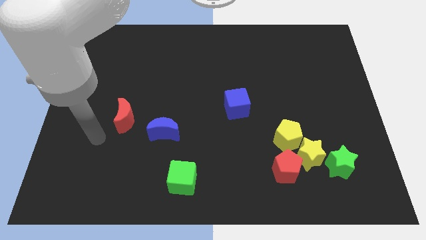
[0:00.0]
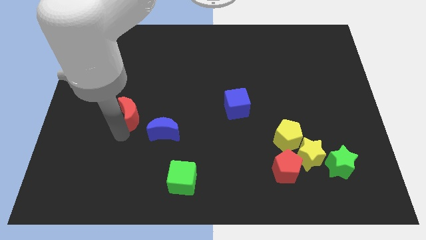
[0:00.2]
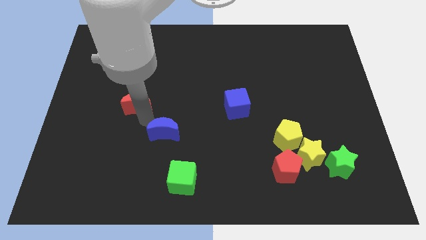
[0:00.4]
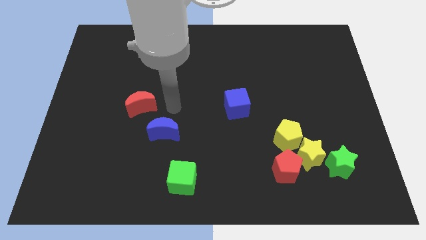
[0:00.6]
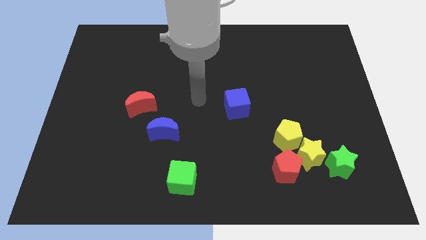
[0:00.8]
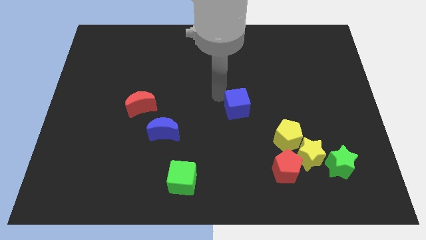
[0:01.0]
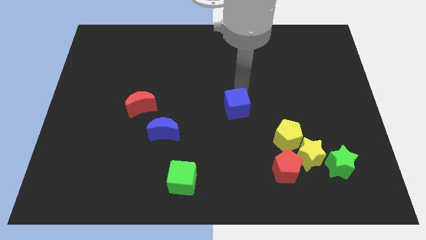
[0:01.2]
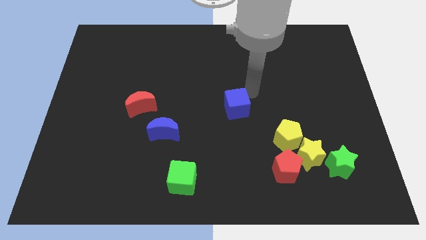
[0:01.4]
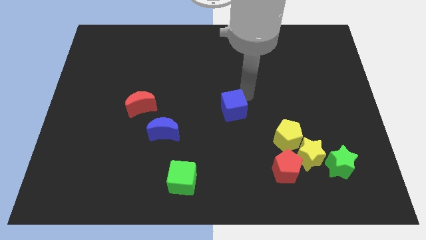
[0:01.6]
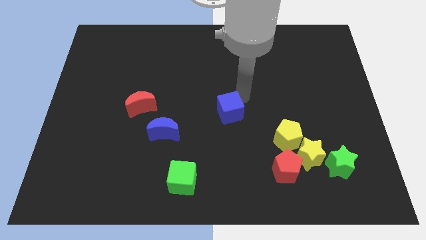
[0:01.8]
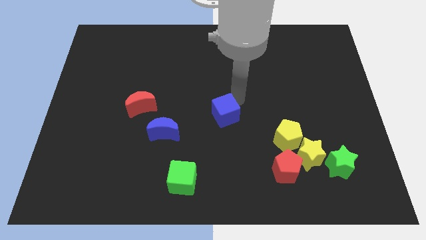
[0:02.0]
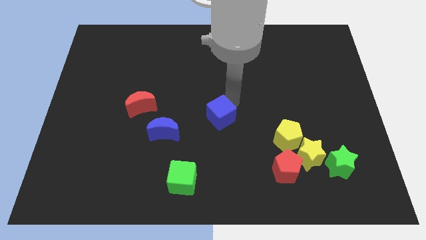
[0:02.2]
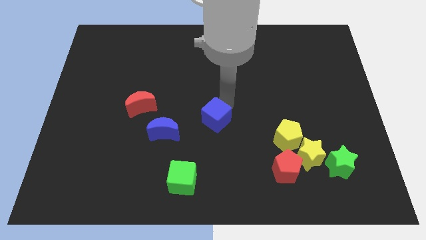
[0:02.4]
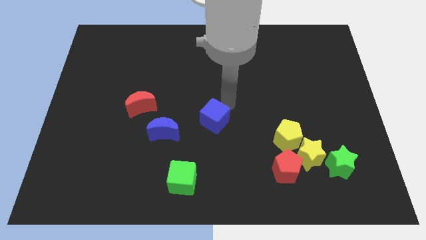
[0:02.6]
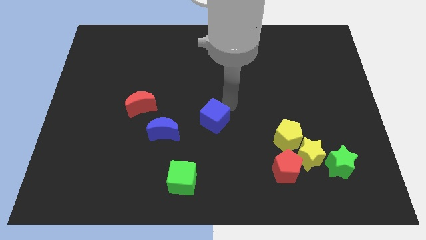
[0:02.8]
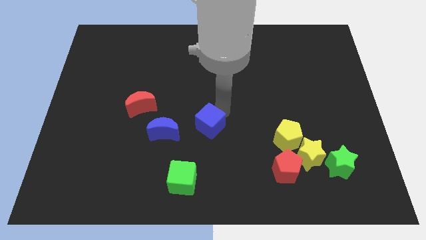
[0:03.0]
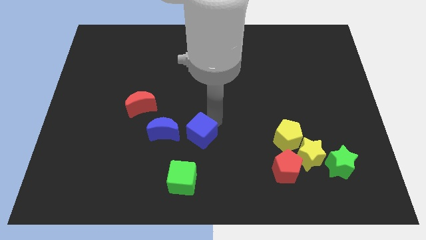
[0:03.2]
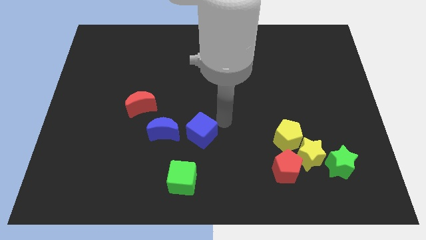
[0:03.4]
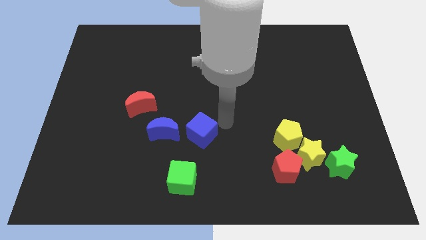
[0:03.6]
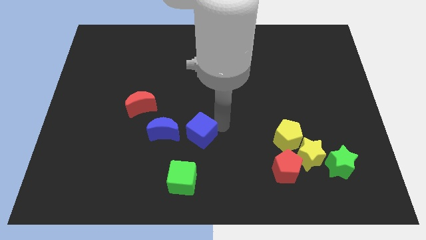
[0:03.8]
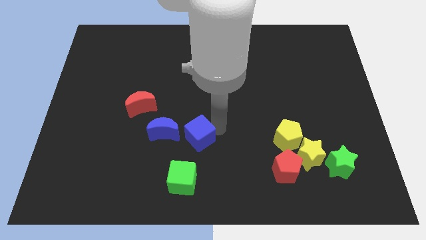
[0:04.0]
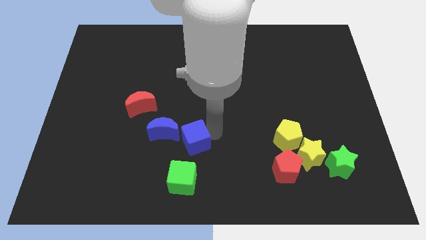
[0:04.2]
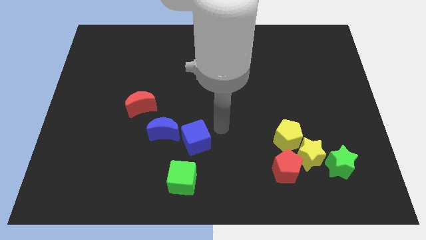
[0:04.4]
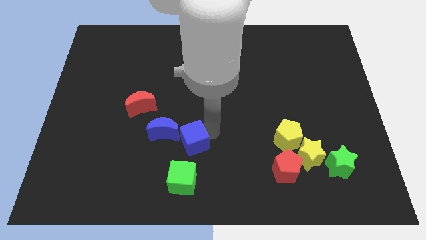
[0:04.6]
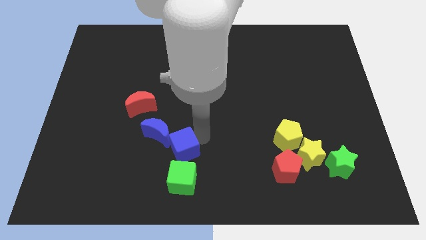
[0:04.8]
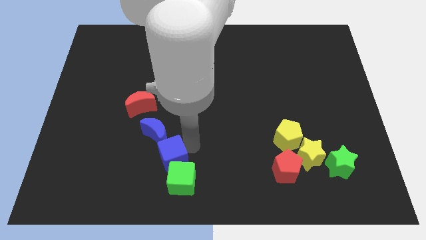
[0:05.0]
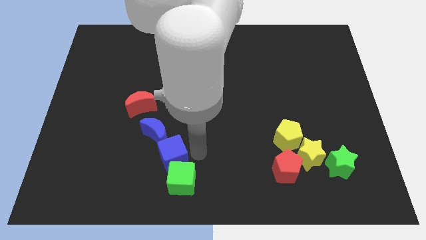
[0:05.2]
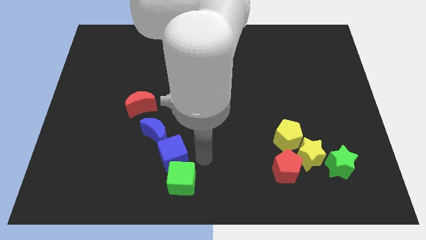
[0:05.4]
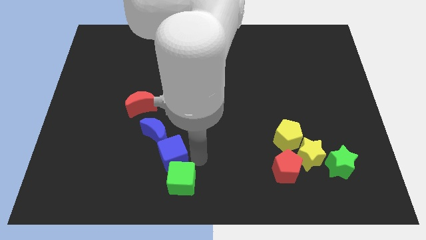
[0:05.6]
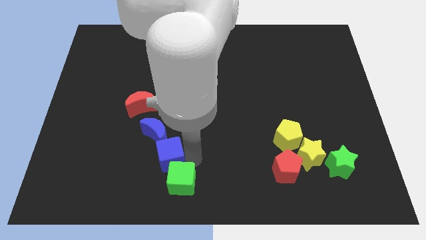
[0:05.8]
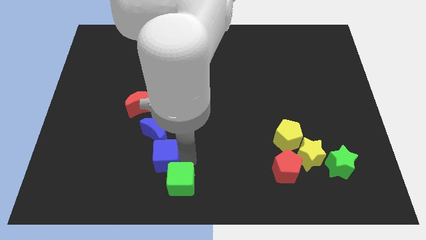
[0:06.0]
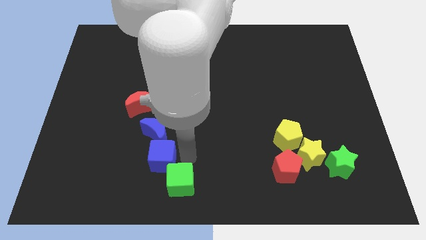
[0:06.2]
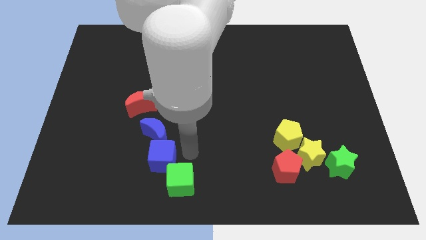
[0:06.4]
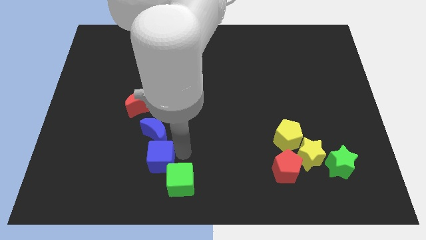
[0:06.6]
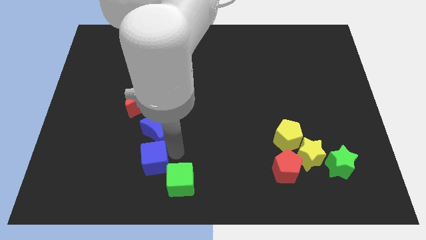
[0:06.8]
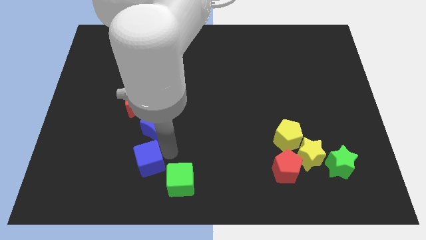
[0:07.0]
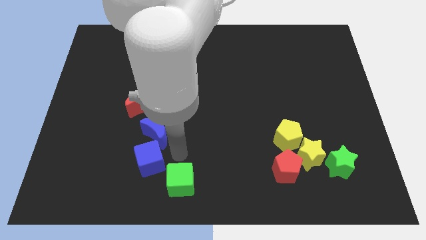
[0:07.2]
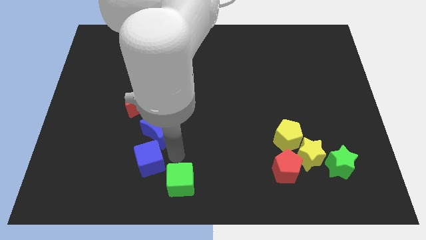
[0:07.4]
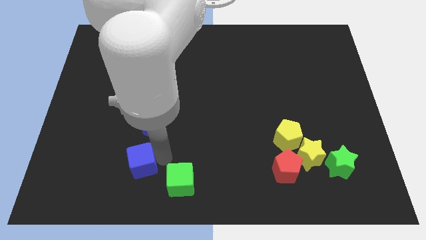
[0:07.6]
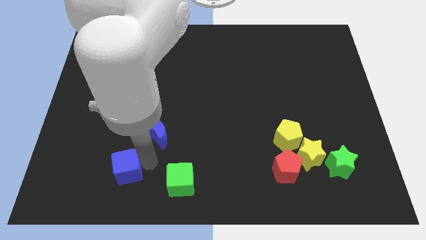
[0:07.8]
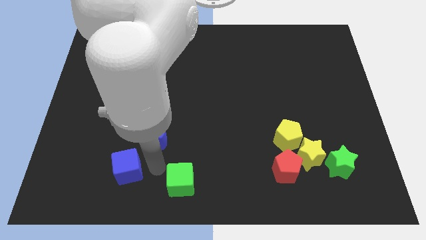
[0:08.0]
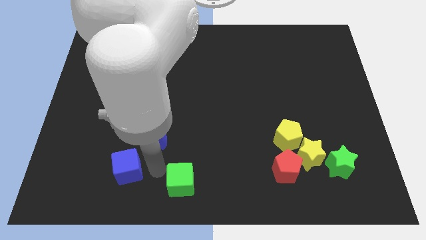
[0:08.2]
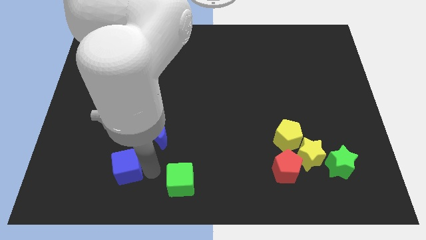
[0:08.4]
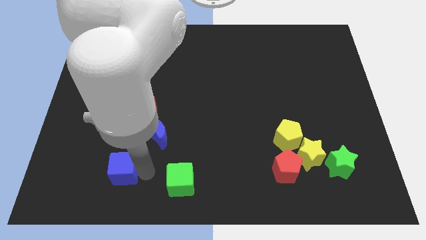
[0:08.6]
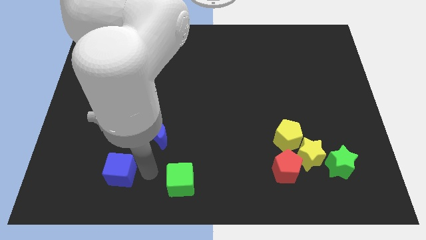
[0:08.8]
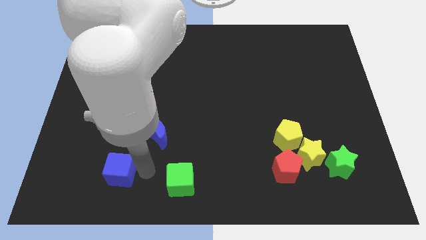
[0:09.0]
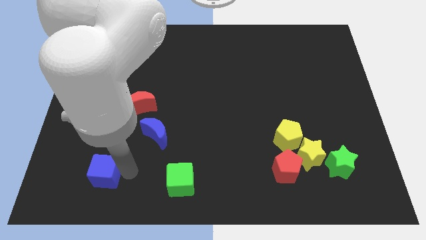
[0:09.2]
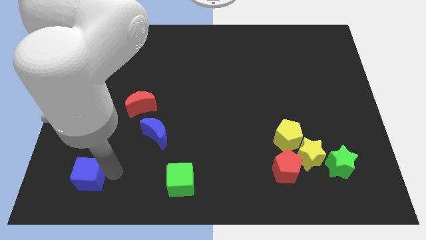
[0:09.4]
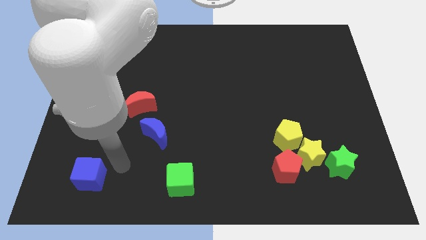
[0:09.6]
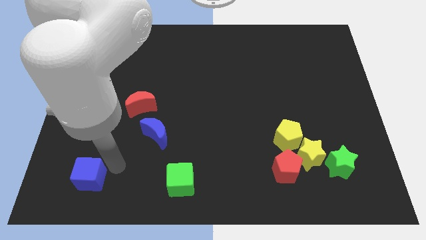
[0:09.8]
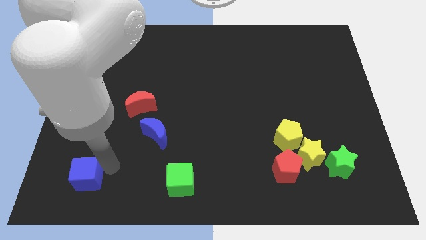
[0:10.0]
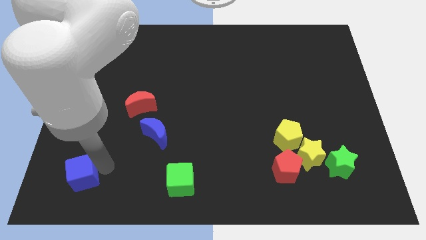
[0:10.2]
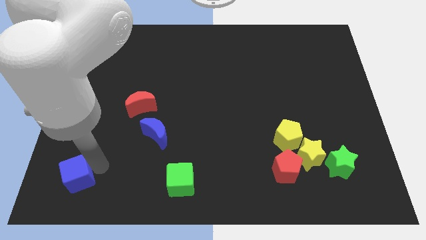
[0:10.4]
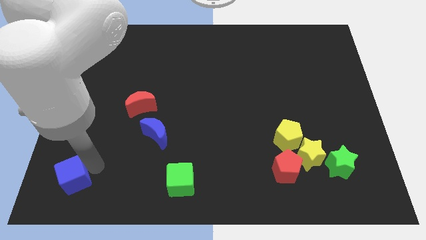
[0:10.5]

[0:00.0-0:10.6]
put the blue cube to the bottom left of the board

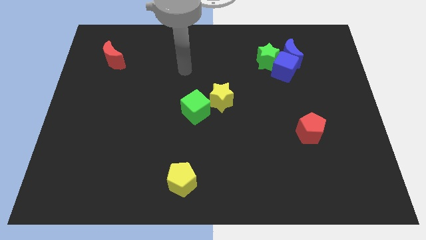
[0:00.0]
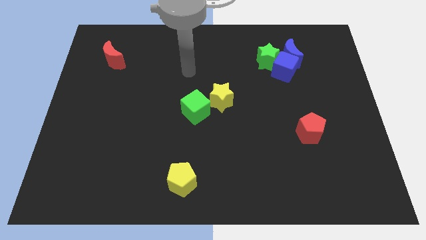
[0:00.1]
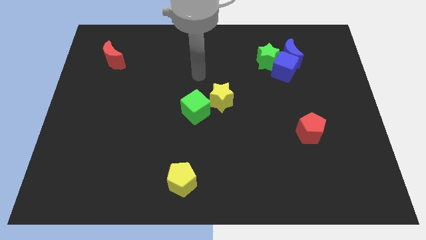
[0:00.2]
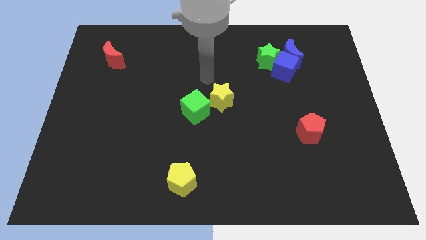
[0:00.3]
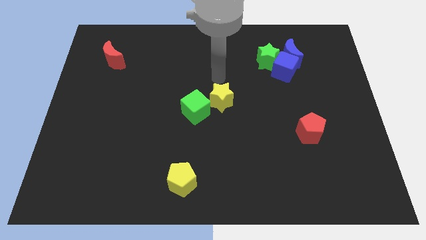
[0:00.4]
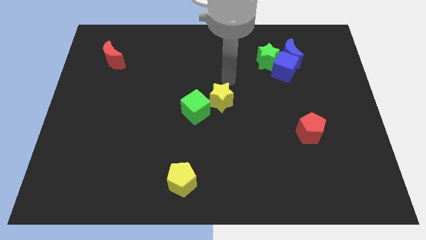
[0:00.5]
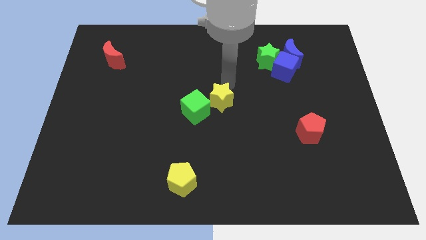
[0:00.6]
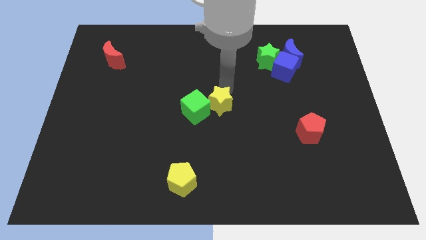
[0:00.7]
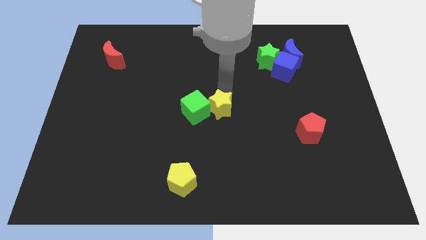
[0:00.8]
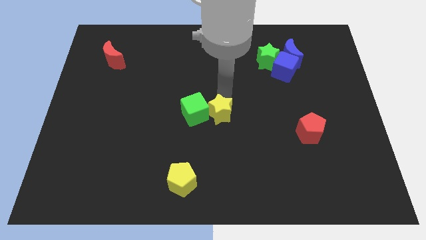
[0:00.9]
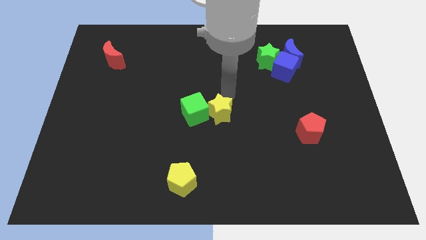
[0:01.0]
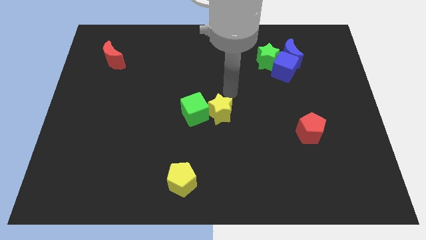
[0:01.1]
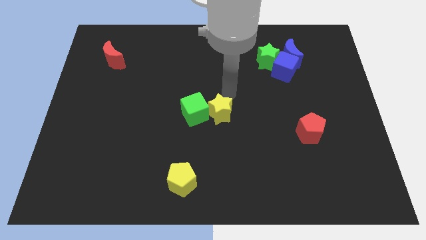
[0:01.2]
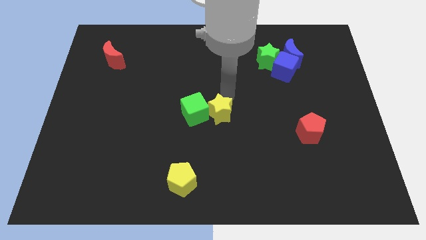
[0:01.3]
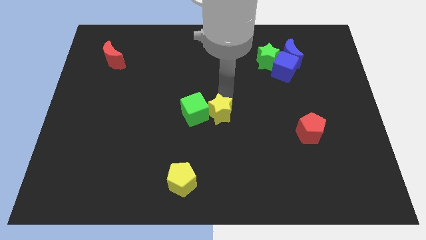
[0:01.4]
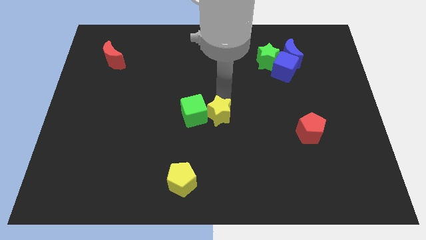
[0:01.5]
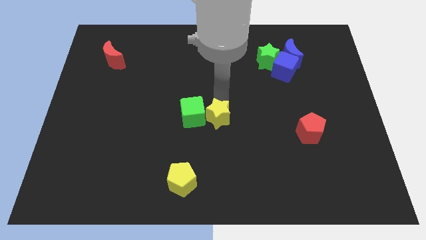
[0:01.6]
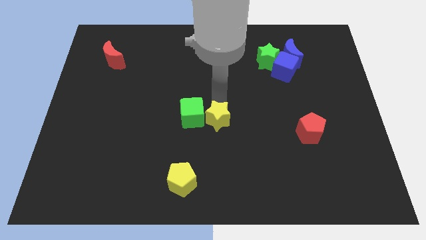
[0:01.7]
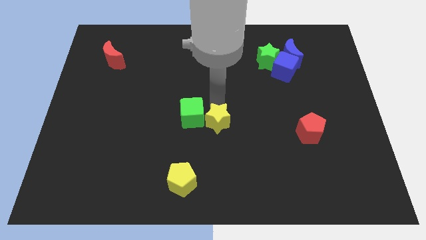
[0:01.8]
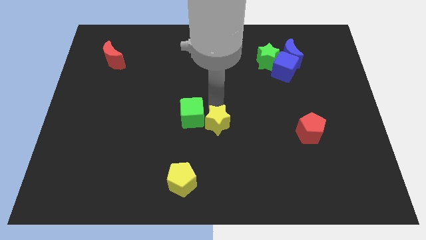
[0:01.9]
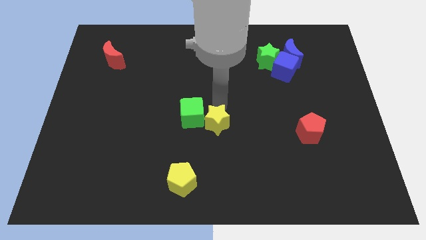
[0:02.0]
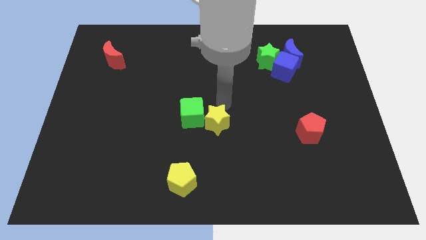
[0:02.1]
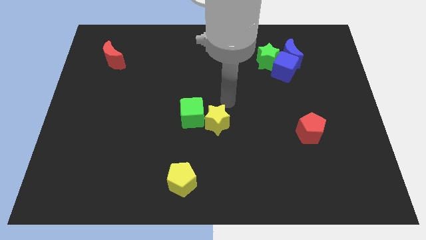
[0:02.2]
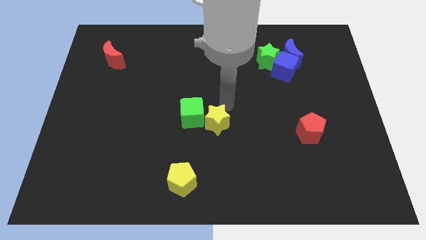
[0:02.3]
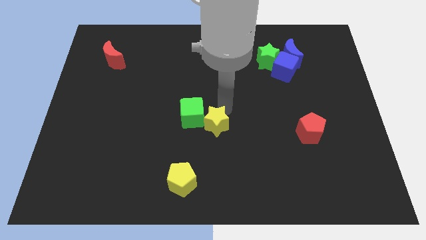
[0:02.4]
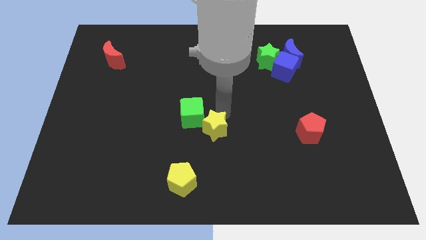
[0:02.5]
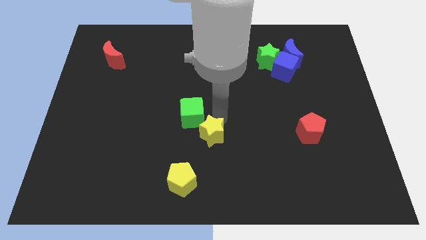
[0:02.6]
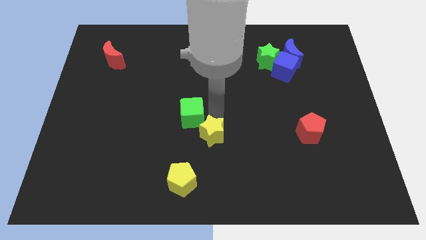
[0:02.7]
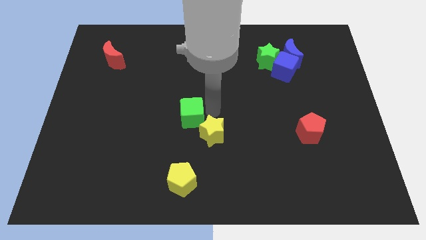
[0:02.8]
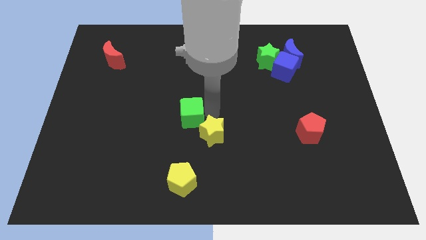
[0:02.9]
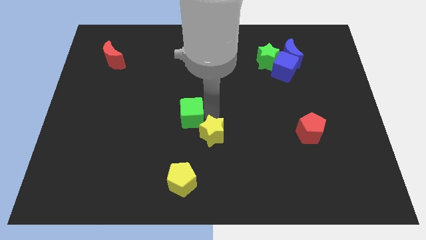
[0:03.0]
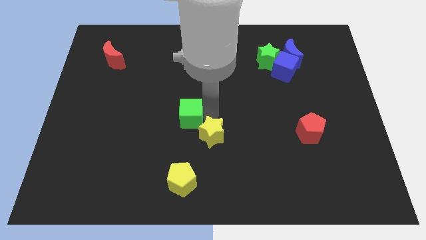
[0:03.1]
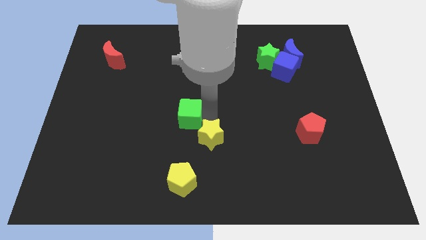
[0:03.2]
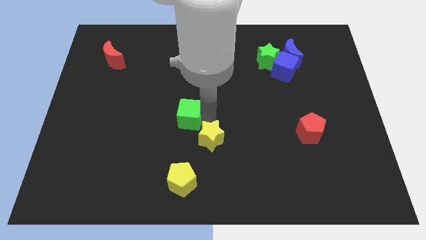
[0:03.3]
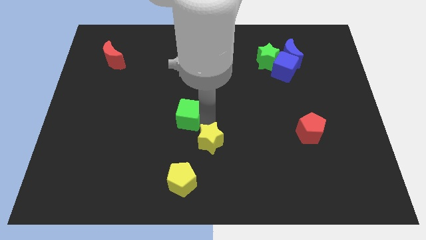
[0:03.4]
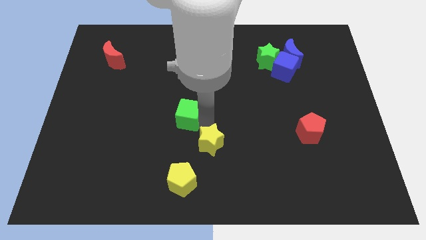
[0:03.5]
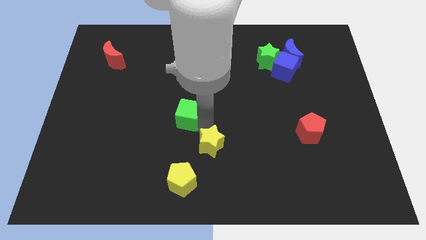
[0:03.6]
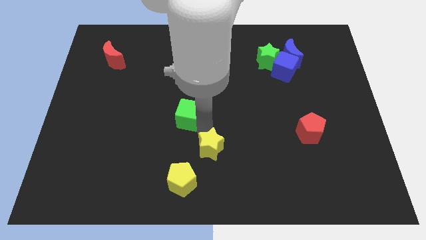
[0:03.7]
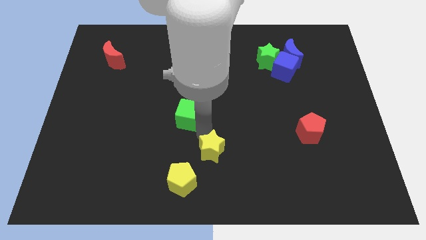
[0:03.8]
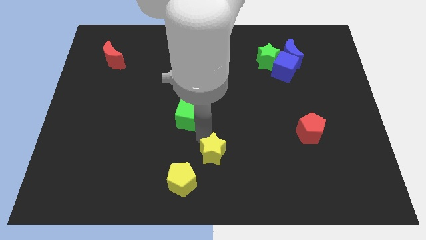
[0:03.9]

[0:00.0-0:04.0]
move the yellow star to the bottom side
